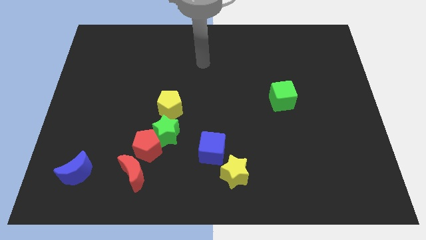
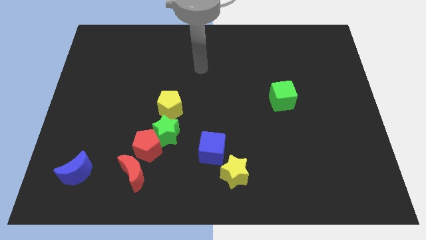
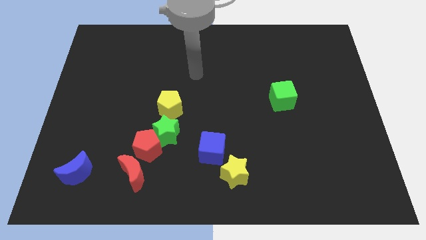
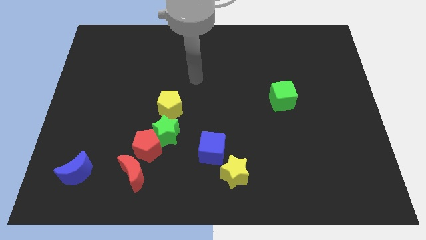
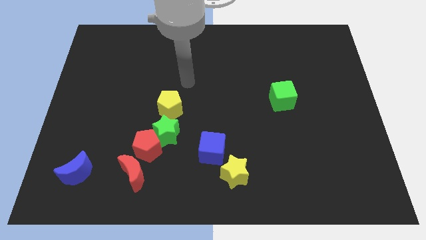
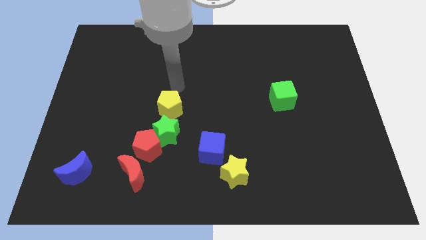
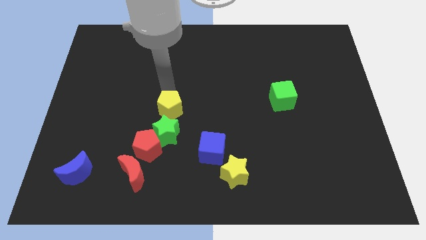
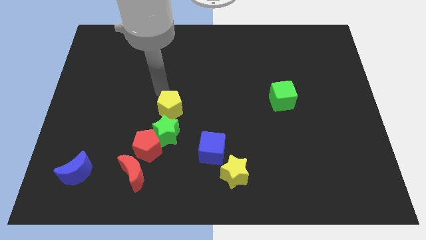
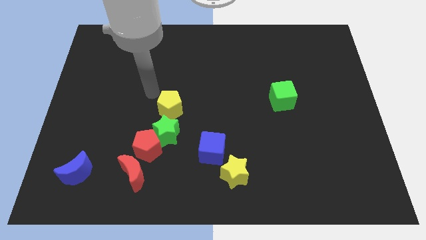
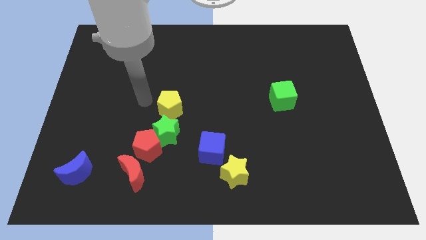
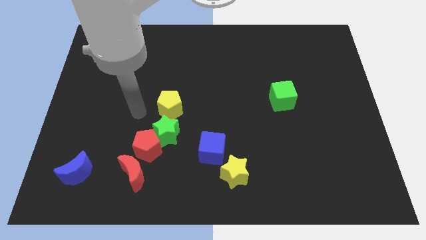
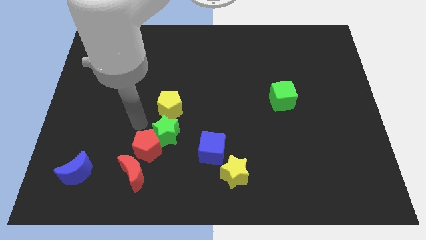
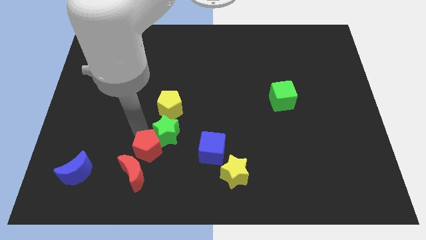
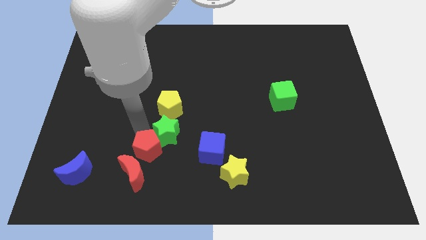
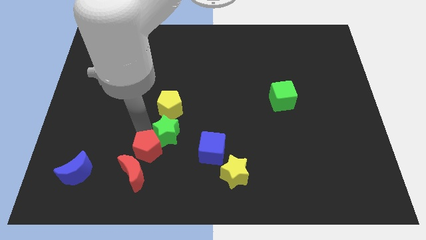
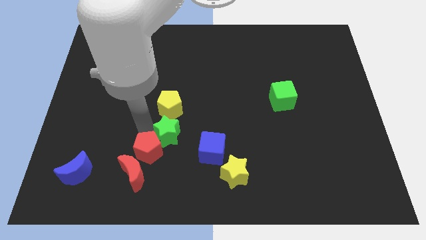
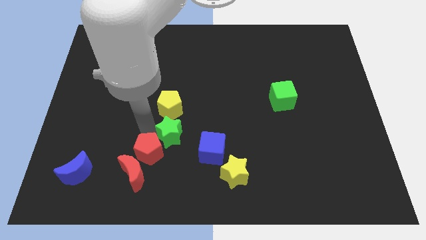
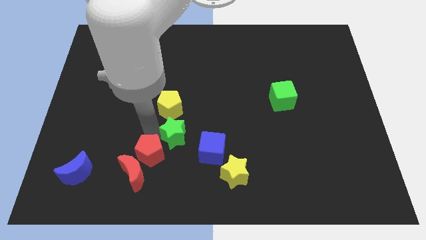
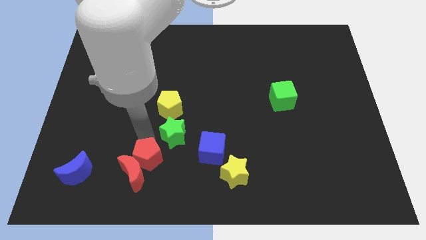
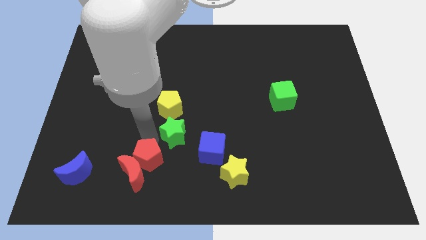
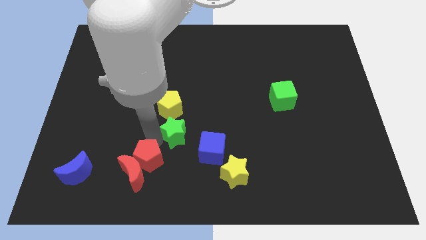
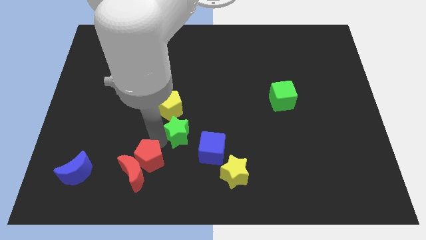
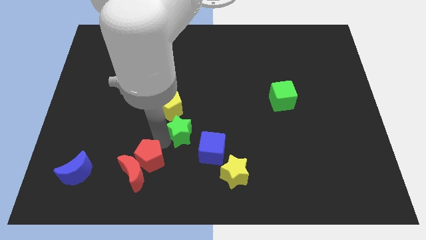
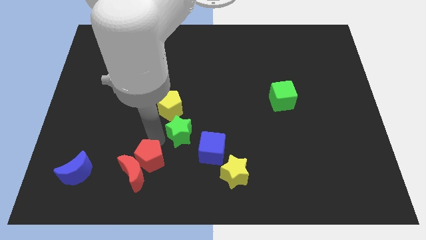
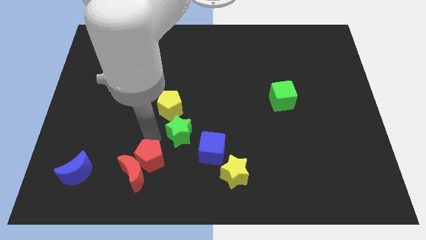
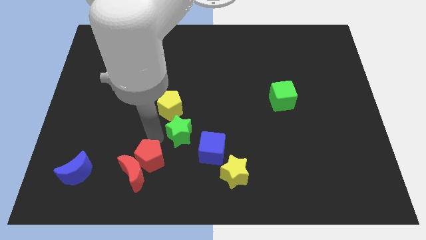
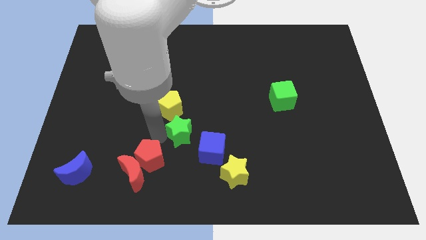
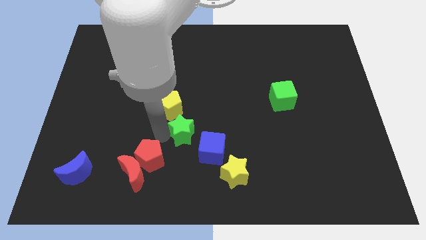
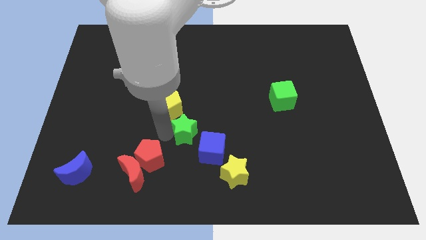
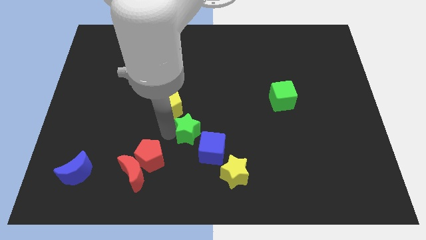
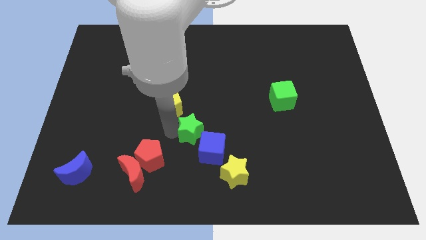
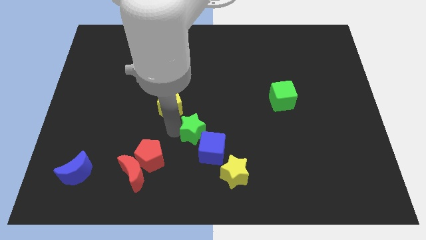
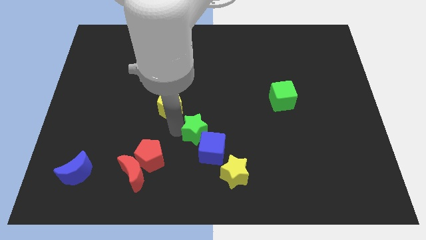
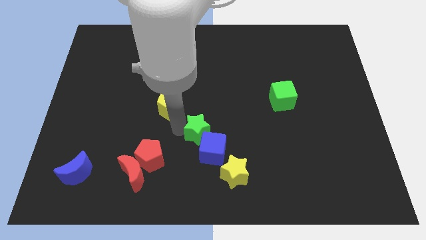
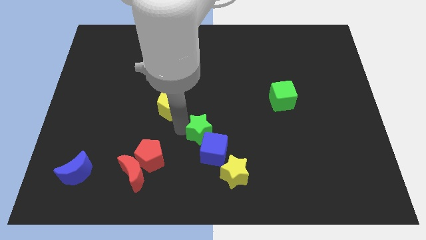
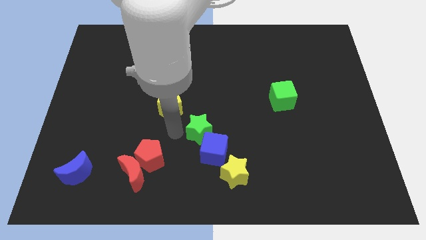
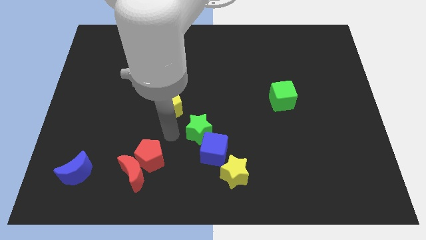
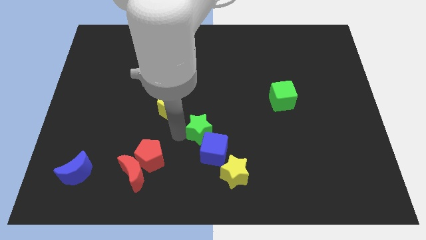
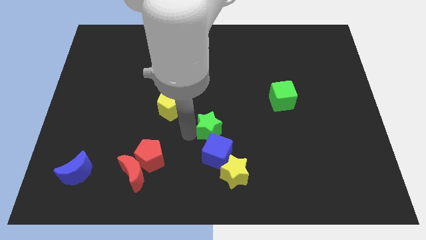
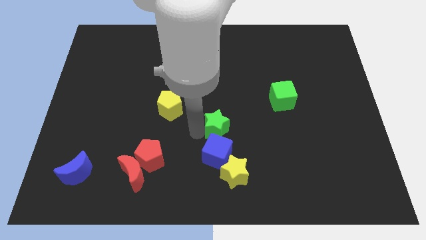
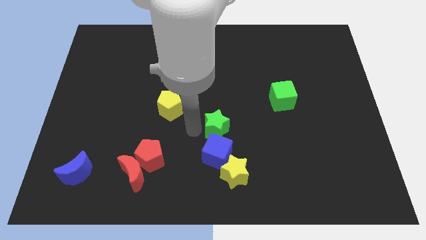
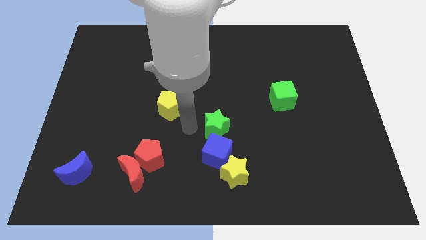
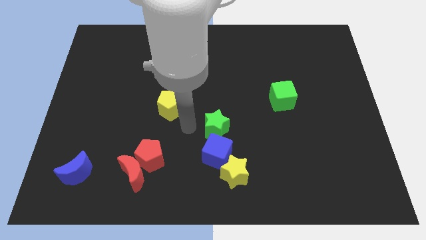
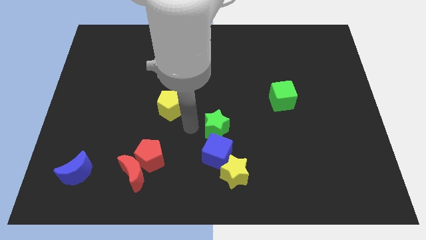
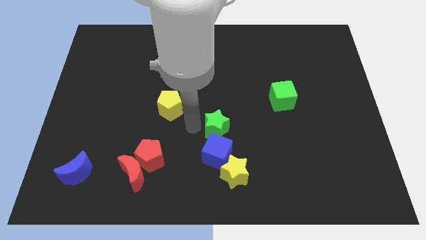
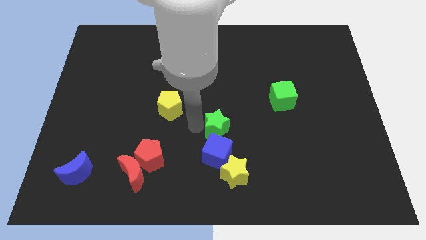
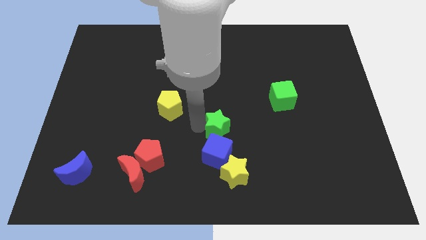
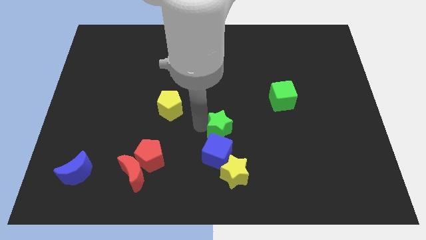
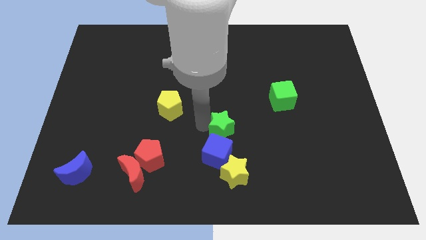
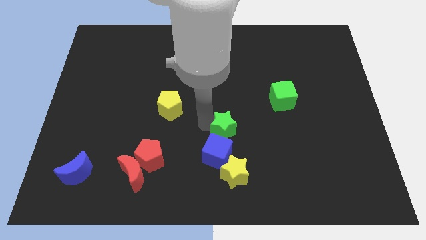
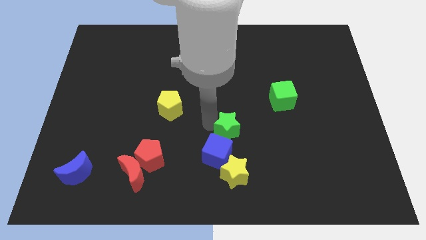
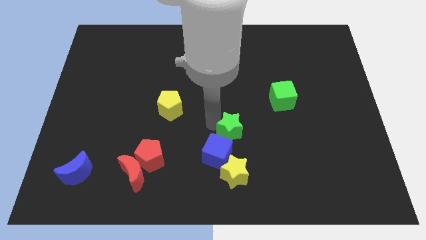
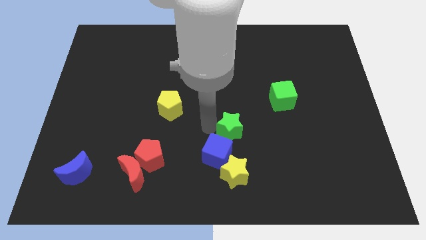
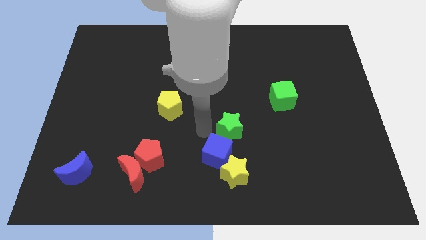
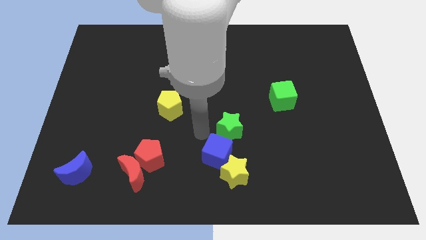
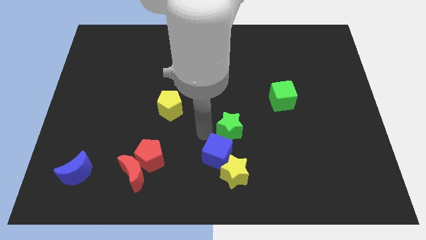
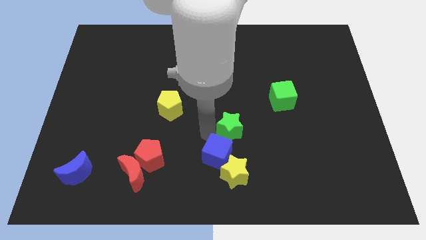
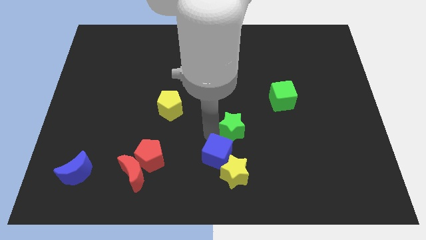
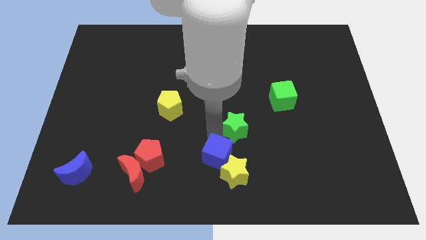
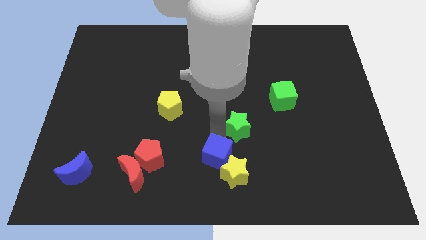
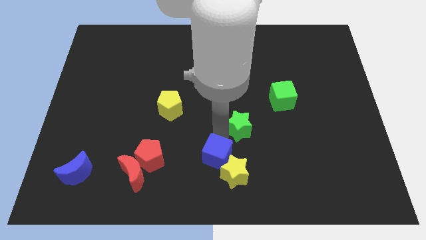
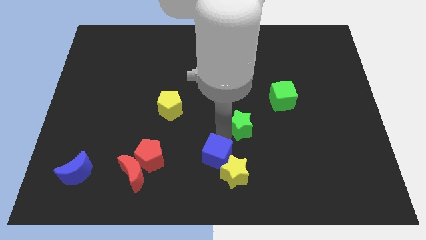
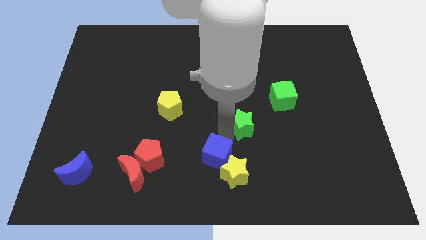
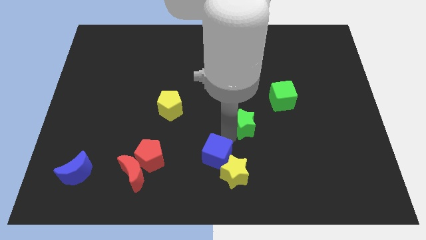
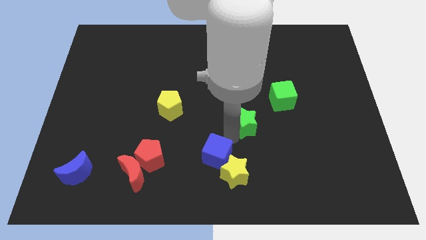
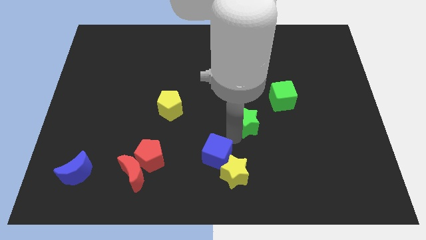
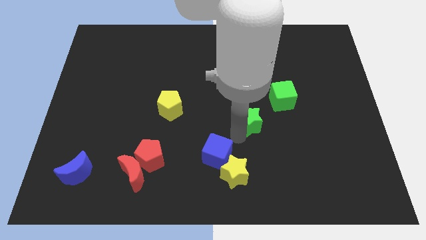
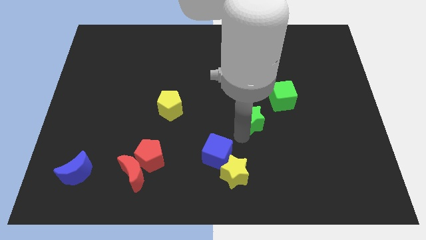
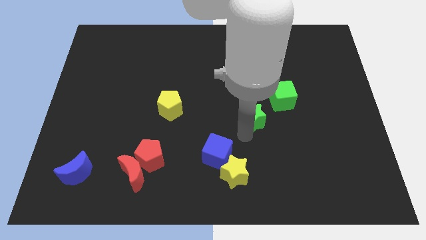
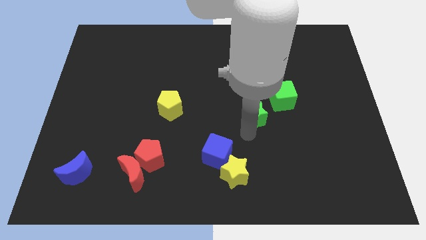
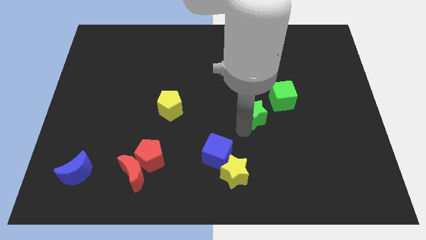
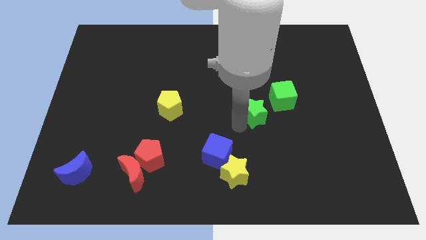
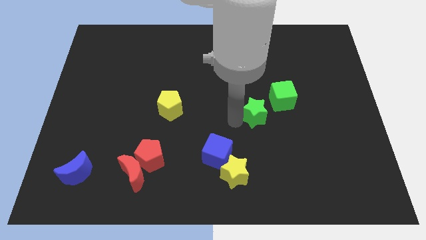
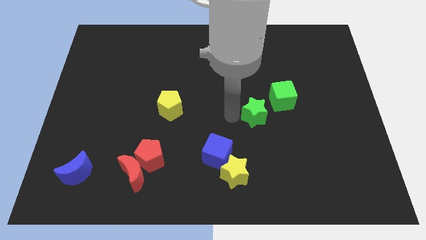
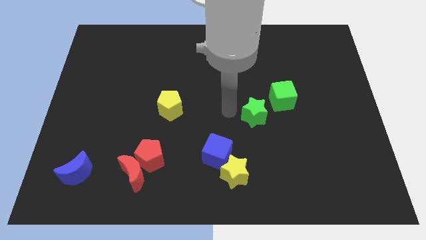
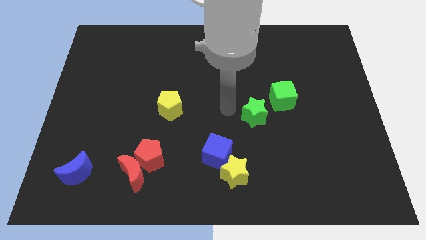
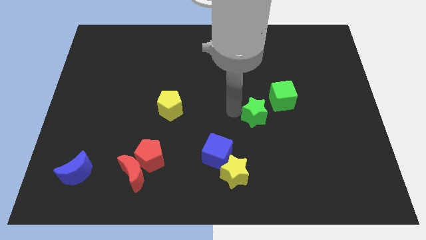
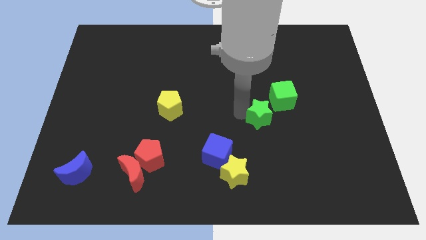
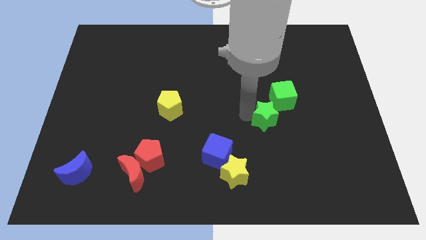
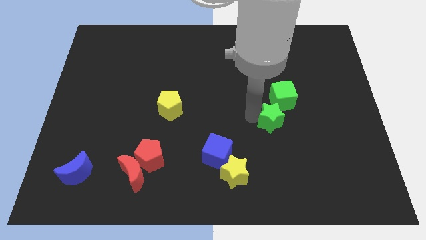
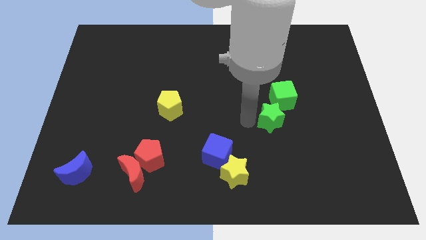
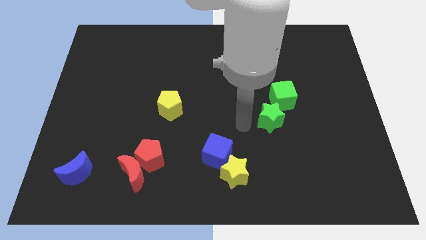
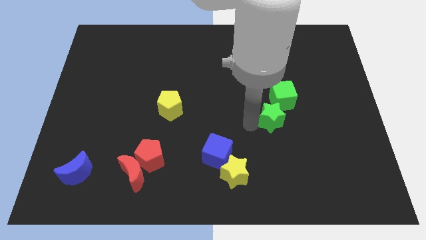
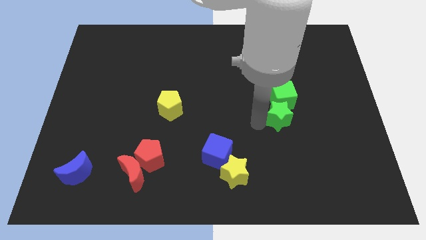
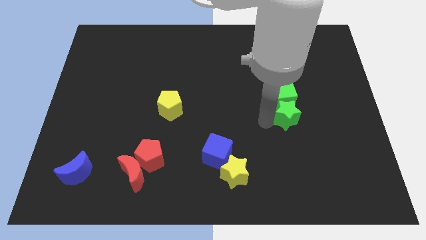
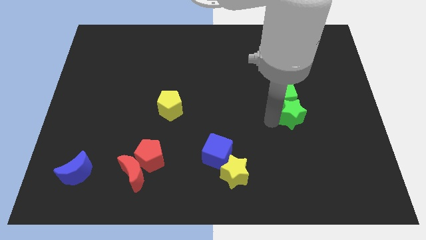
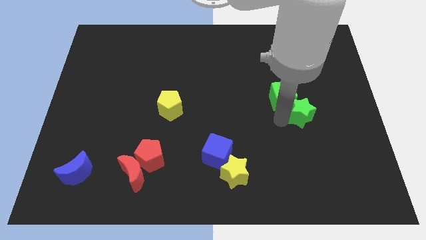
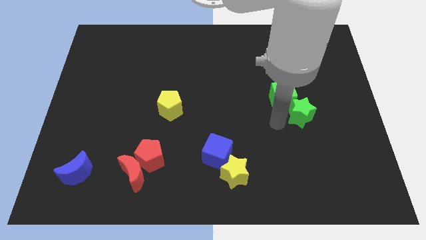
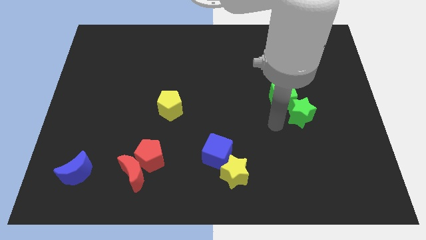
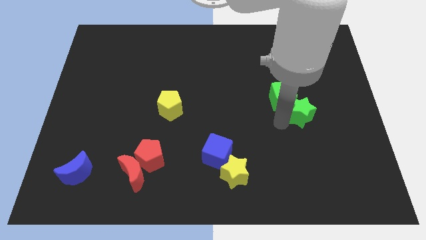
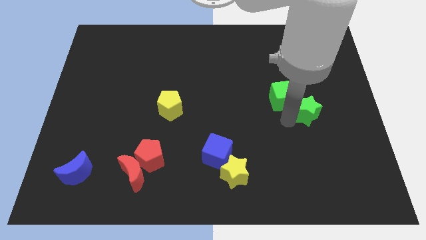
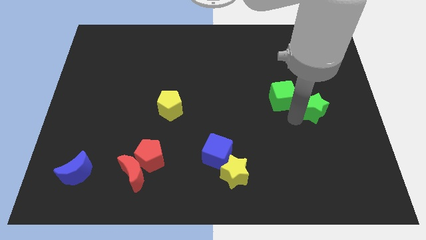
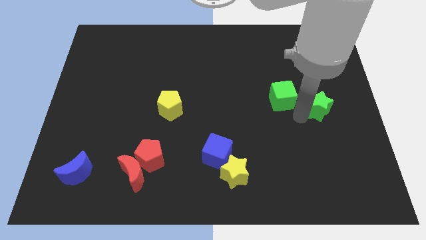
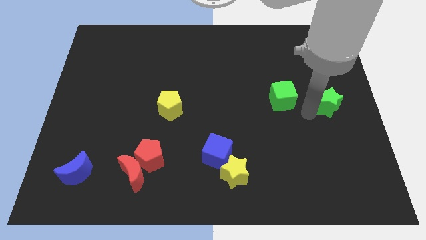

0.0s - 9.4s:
push the green star to the right side of the board
